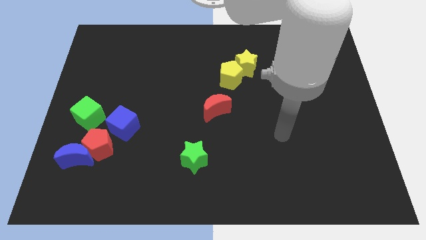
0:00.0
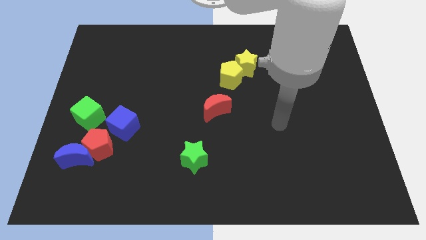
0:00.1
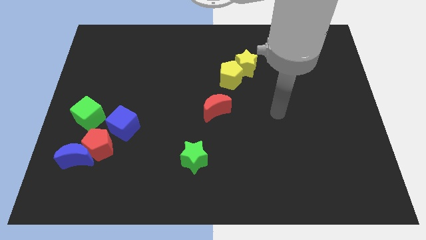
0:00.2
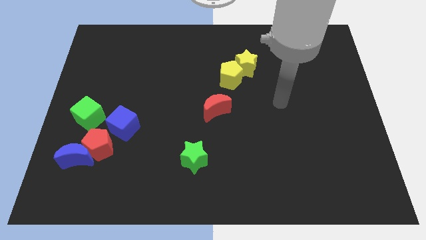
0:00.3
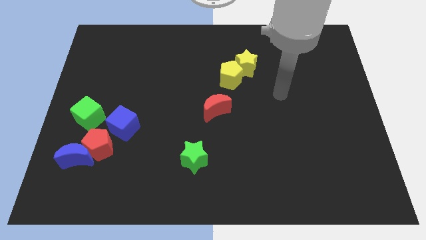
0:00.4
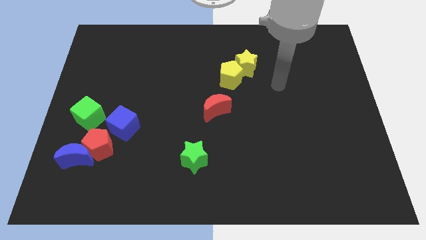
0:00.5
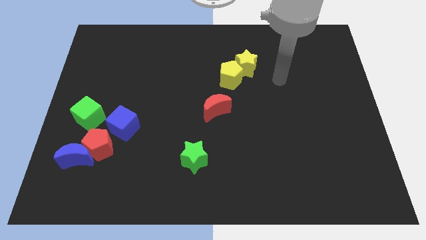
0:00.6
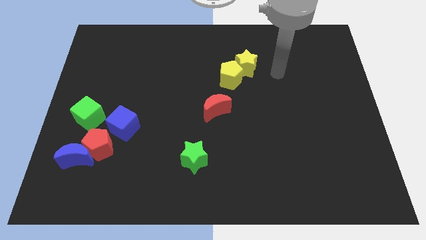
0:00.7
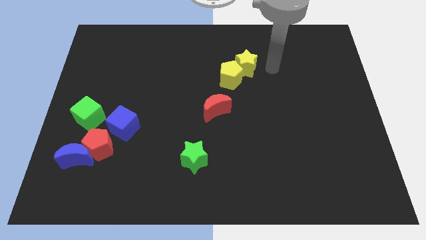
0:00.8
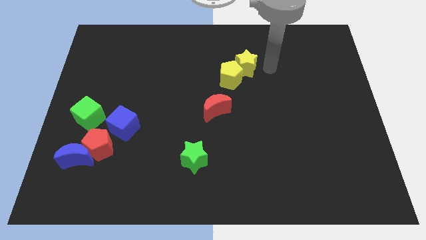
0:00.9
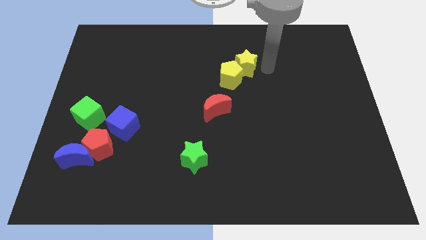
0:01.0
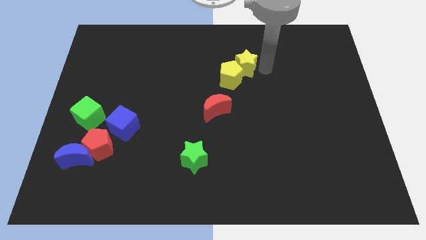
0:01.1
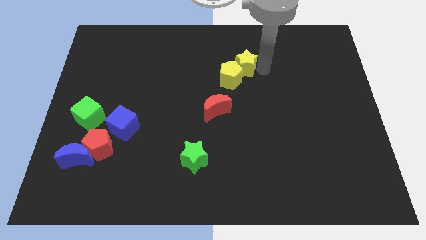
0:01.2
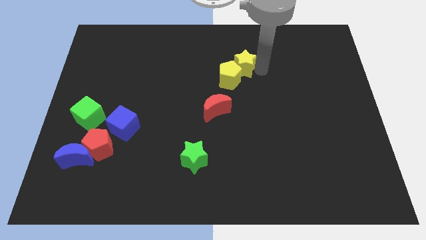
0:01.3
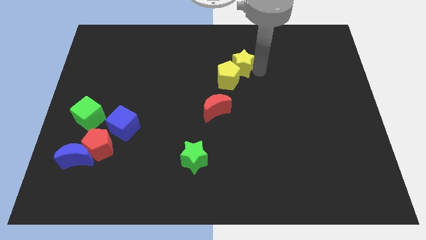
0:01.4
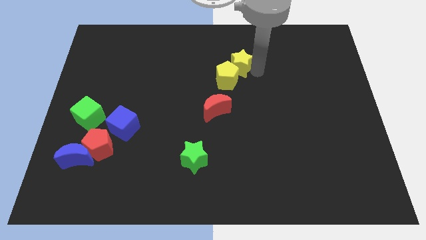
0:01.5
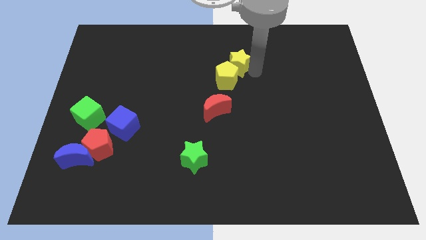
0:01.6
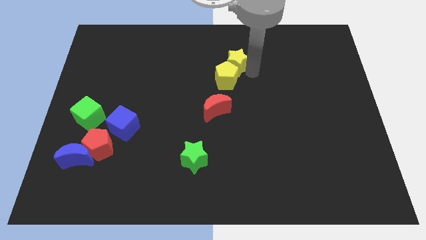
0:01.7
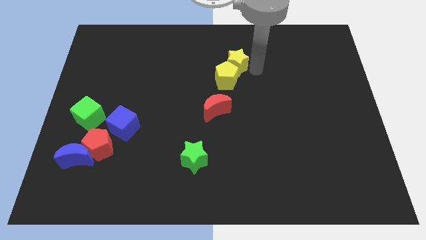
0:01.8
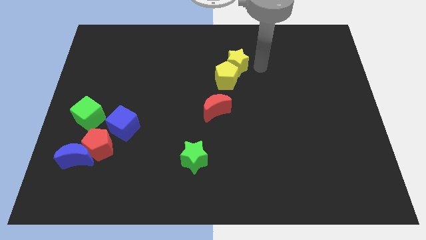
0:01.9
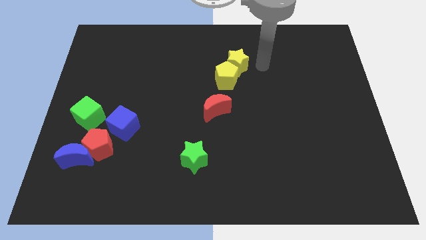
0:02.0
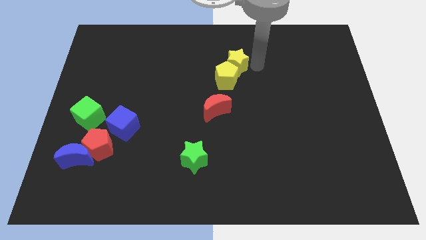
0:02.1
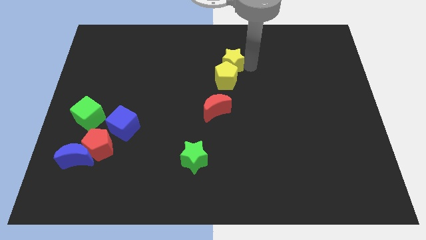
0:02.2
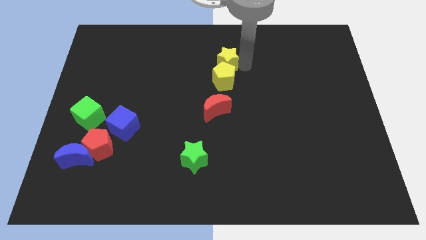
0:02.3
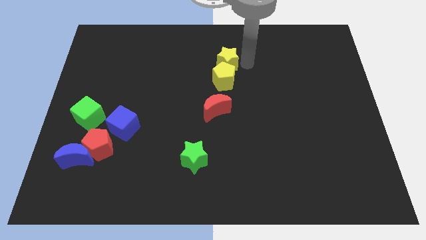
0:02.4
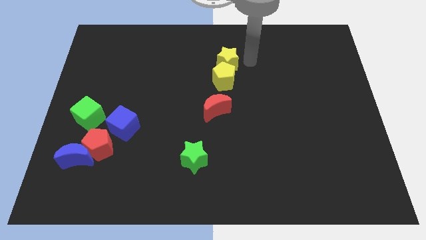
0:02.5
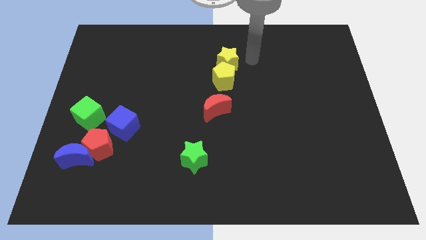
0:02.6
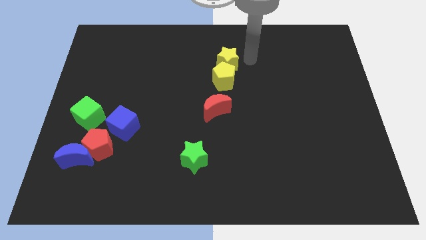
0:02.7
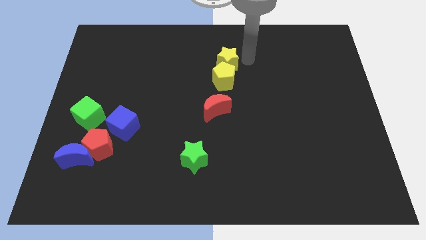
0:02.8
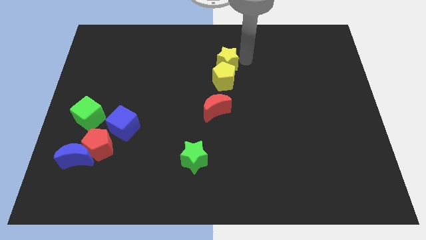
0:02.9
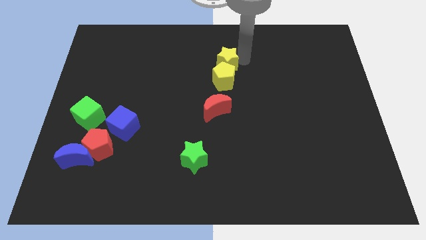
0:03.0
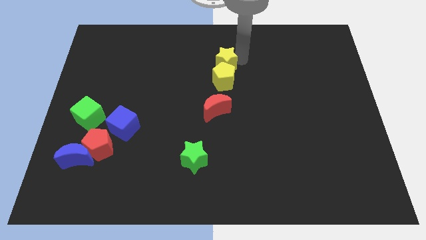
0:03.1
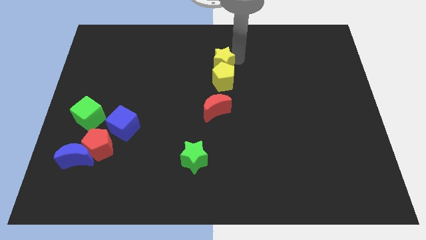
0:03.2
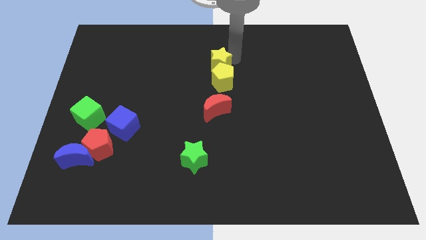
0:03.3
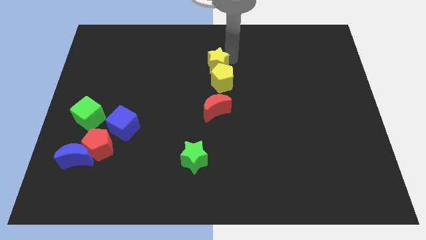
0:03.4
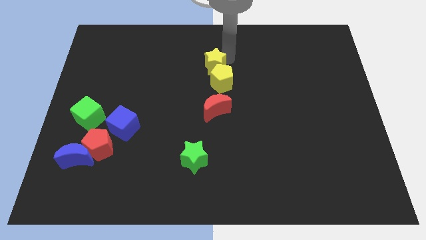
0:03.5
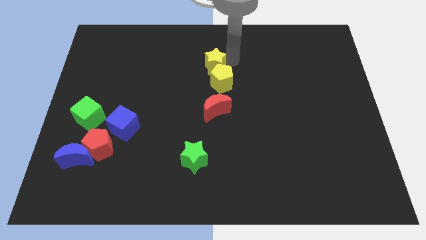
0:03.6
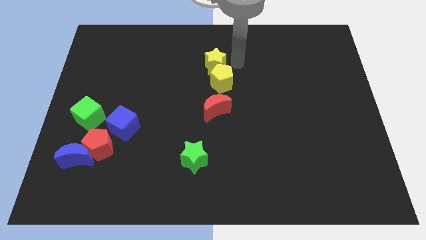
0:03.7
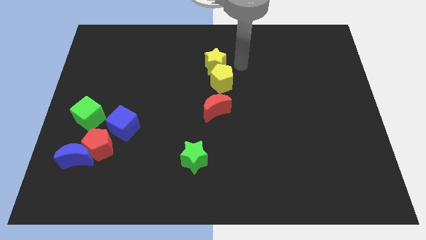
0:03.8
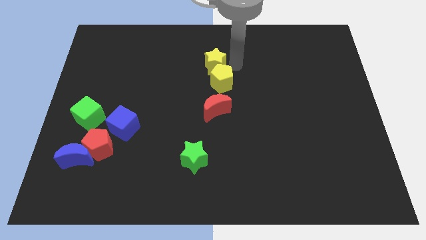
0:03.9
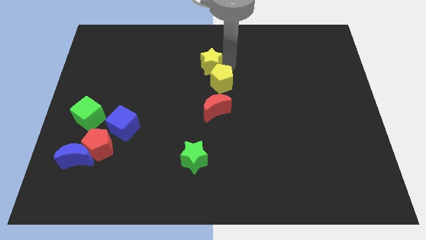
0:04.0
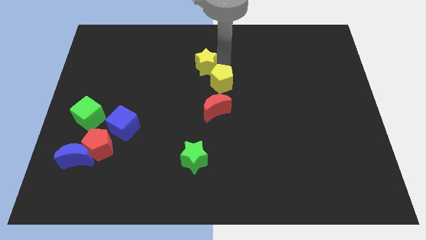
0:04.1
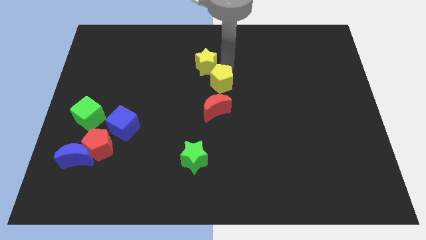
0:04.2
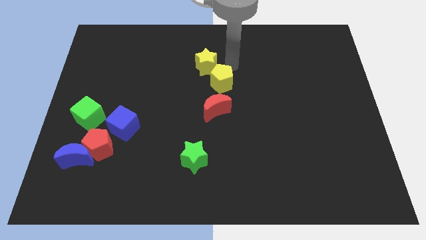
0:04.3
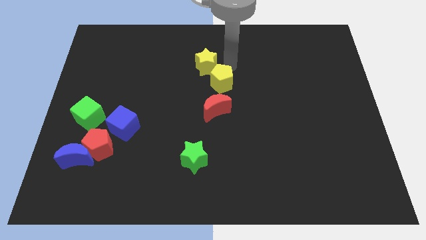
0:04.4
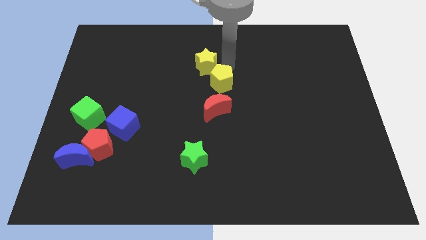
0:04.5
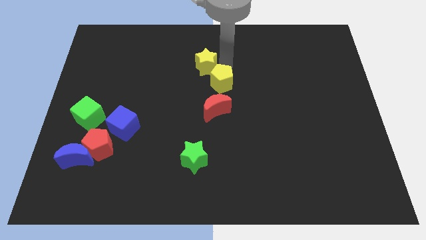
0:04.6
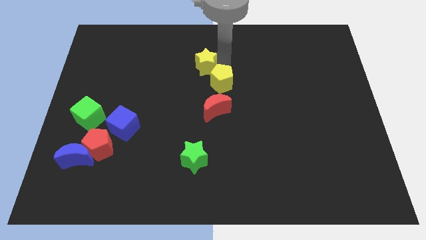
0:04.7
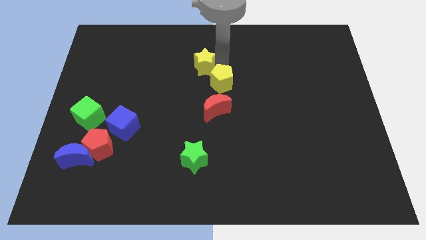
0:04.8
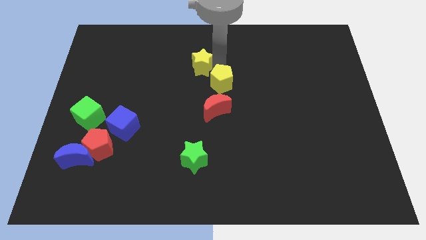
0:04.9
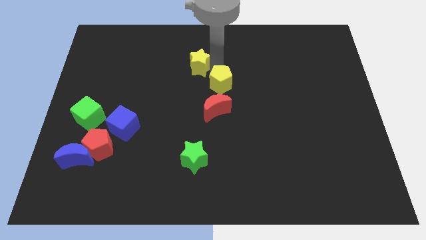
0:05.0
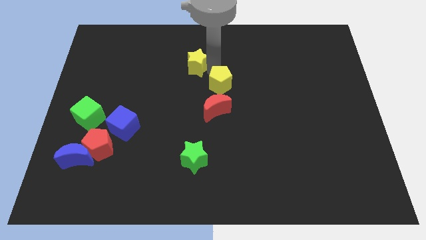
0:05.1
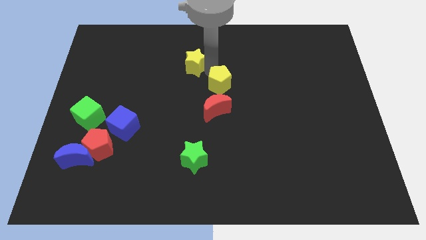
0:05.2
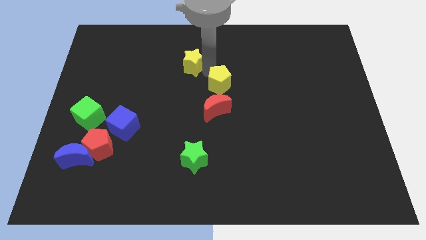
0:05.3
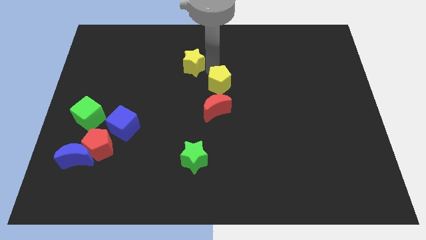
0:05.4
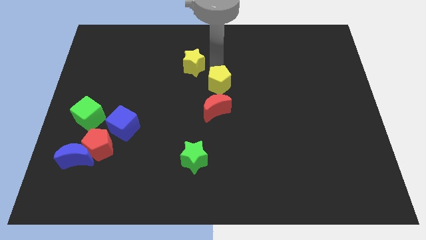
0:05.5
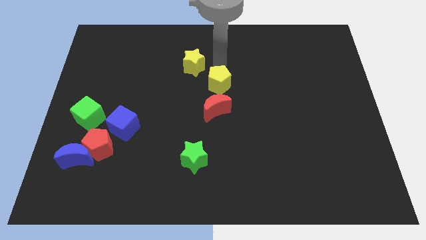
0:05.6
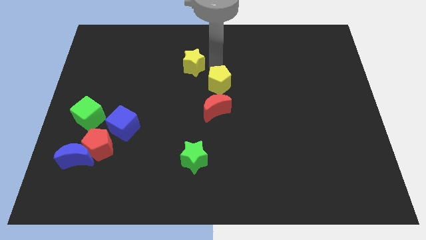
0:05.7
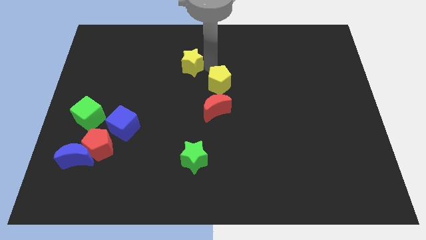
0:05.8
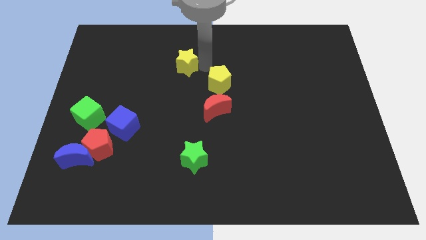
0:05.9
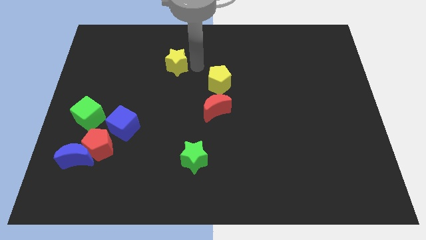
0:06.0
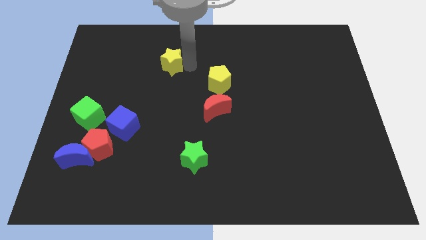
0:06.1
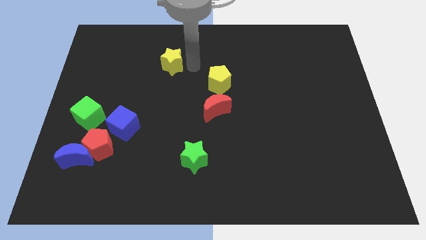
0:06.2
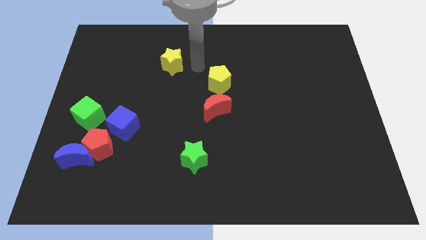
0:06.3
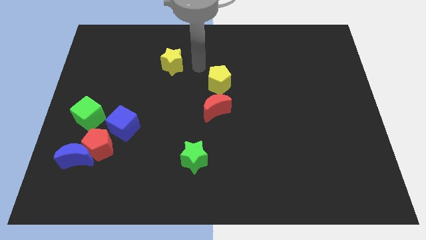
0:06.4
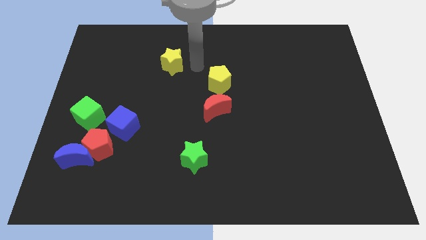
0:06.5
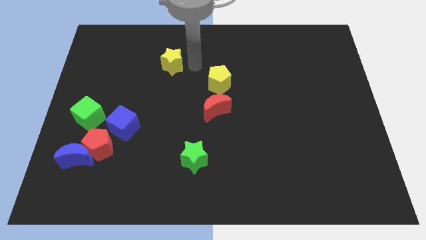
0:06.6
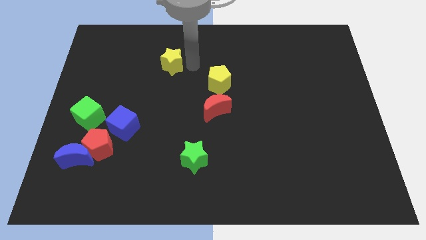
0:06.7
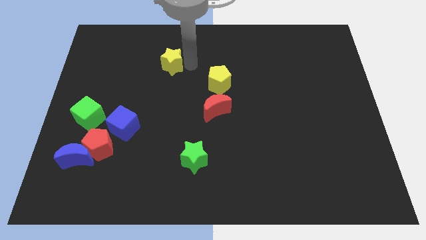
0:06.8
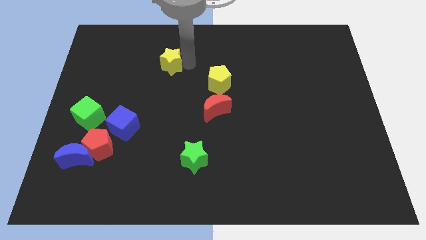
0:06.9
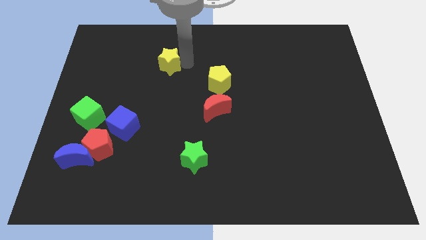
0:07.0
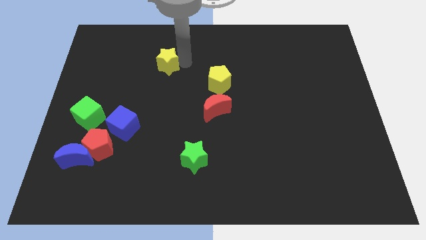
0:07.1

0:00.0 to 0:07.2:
slide the yellow star to the left

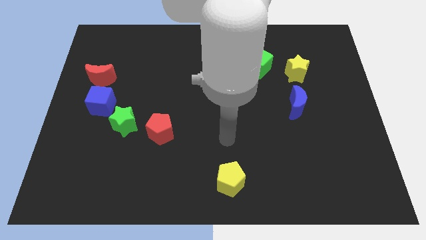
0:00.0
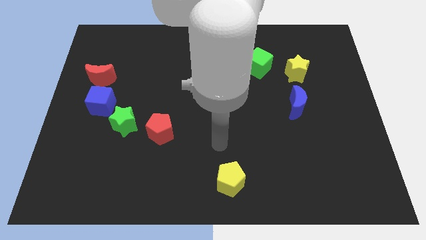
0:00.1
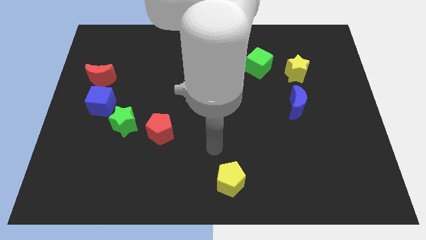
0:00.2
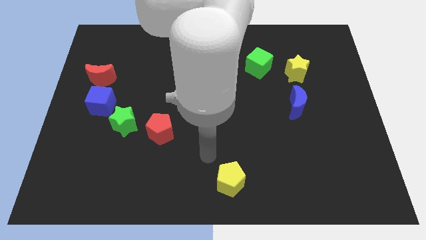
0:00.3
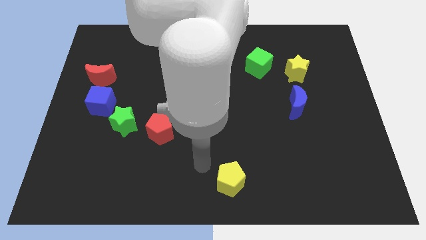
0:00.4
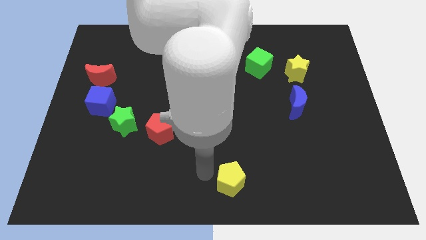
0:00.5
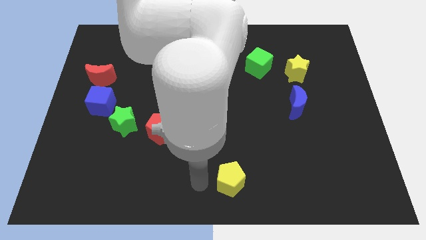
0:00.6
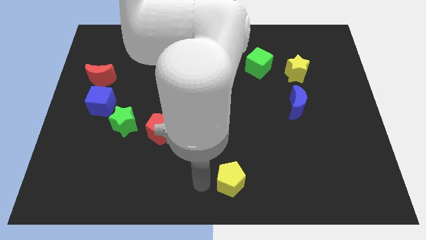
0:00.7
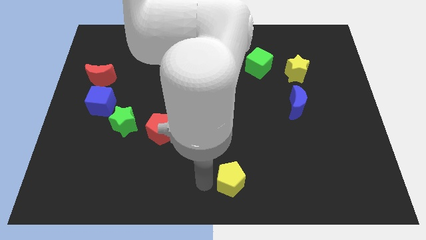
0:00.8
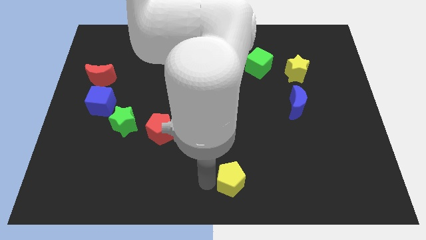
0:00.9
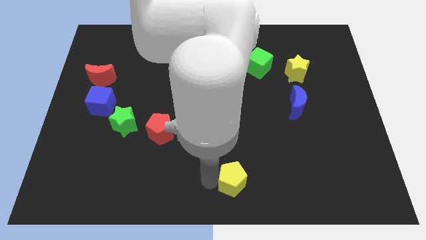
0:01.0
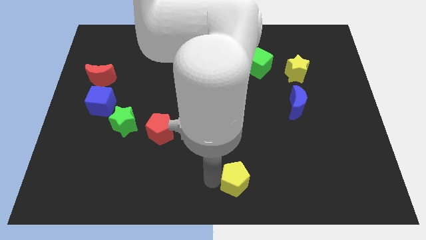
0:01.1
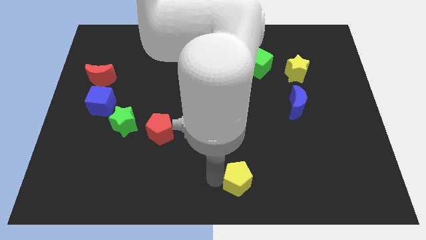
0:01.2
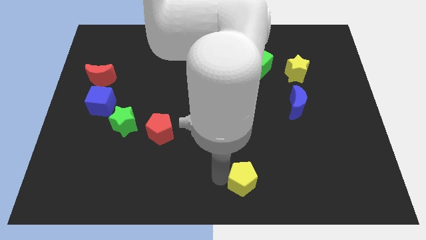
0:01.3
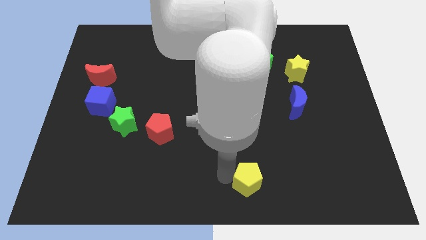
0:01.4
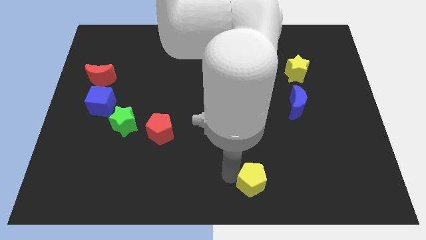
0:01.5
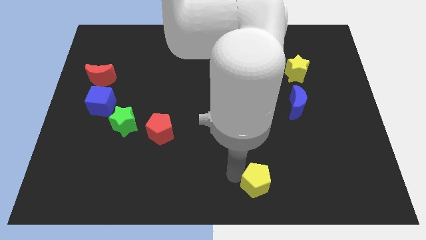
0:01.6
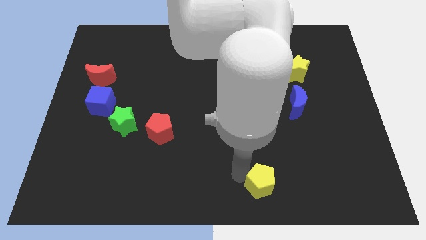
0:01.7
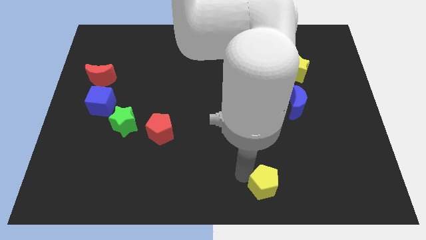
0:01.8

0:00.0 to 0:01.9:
slide the yellow pentagon a little bit right
